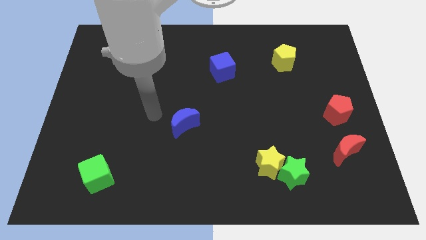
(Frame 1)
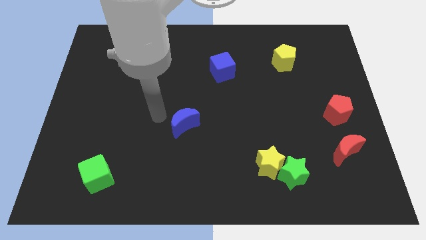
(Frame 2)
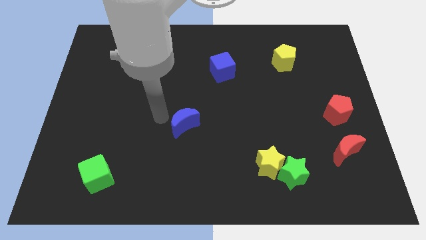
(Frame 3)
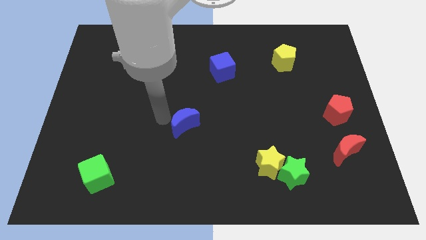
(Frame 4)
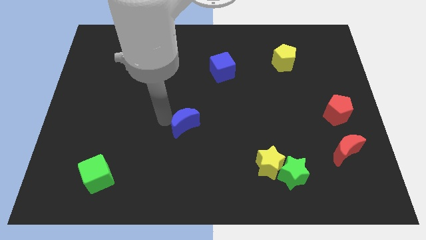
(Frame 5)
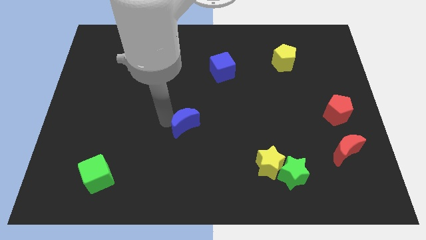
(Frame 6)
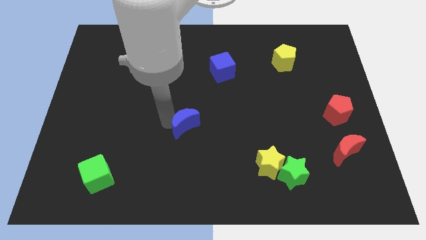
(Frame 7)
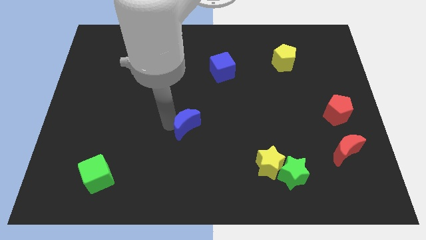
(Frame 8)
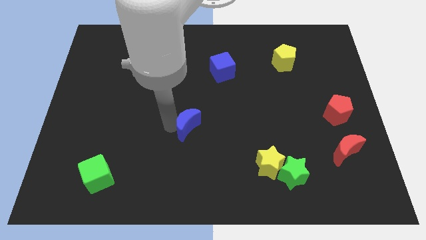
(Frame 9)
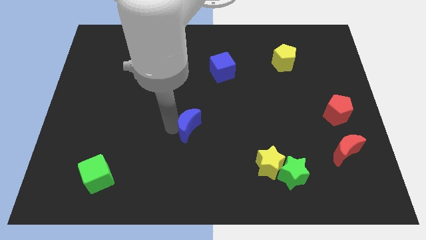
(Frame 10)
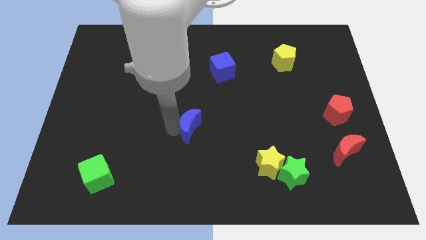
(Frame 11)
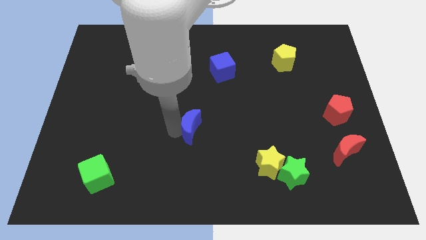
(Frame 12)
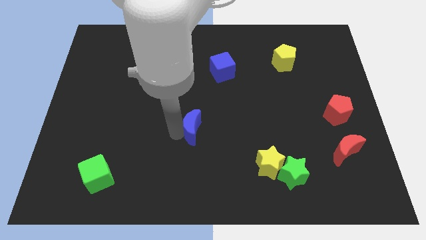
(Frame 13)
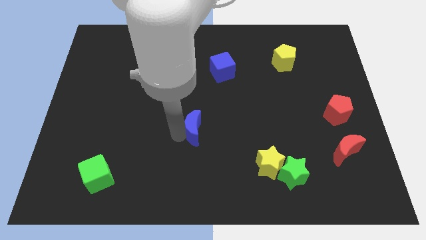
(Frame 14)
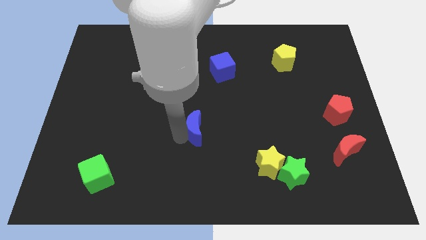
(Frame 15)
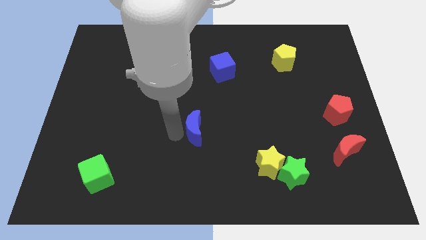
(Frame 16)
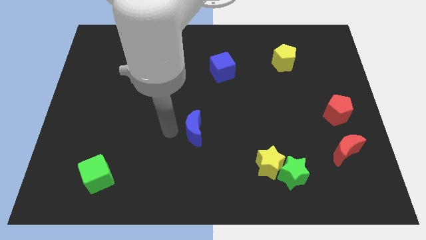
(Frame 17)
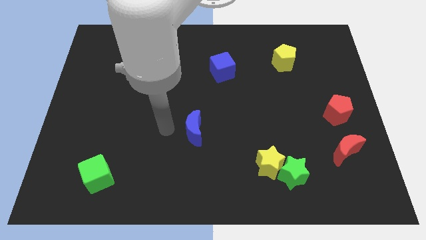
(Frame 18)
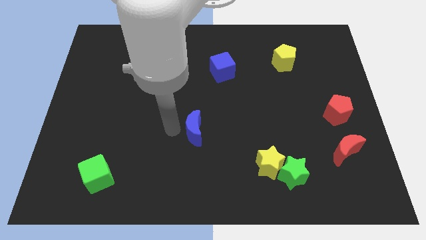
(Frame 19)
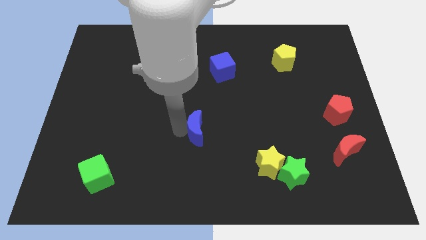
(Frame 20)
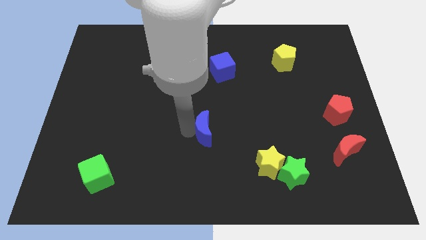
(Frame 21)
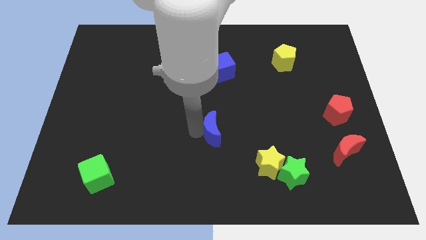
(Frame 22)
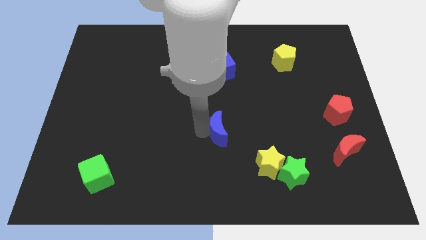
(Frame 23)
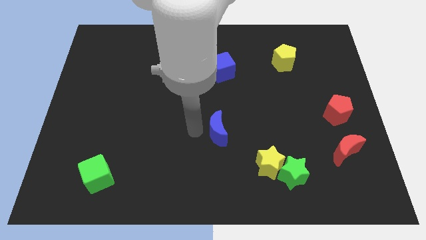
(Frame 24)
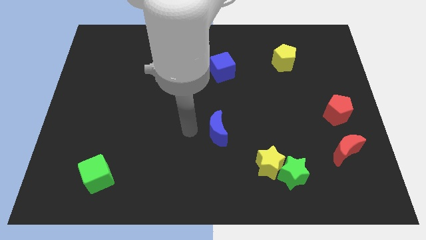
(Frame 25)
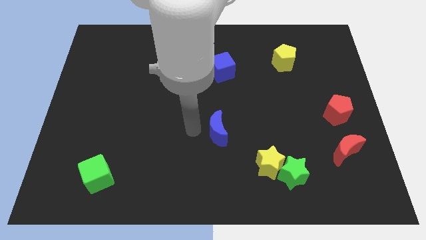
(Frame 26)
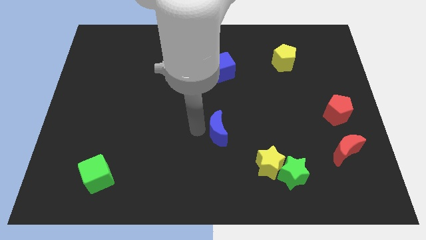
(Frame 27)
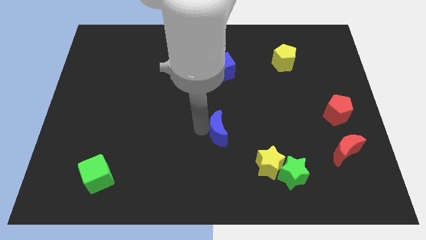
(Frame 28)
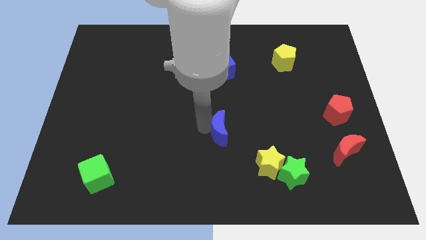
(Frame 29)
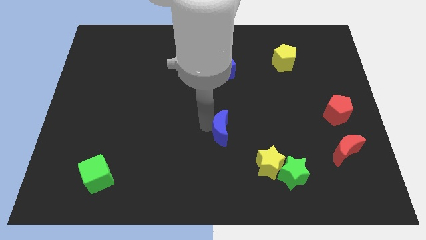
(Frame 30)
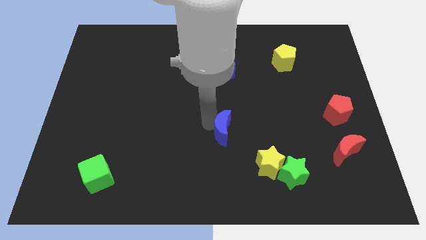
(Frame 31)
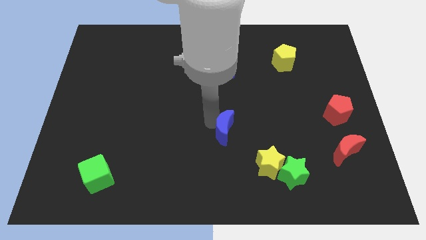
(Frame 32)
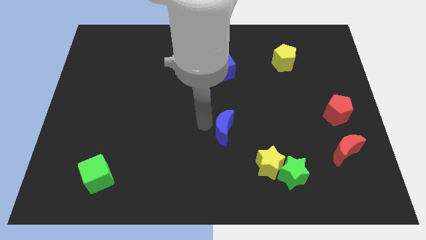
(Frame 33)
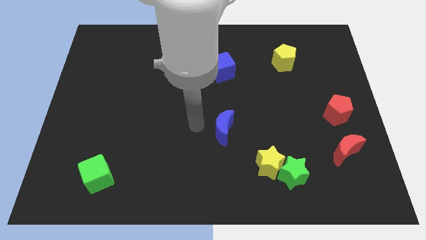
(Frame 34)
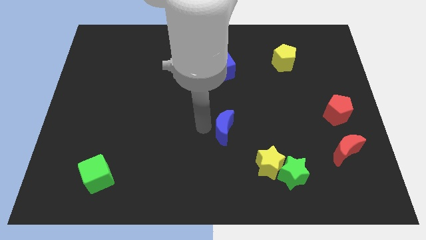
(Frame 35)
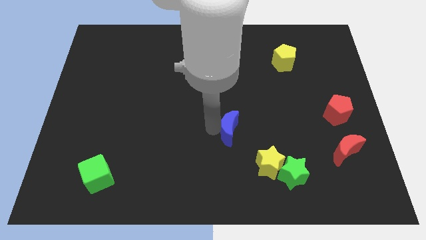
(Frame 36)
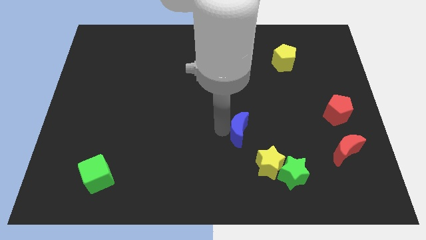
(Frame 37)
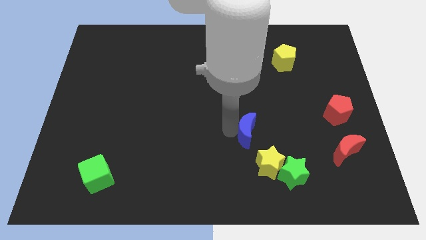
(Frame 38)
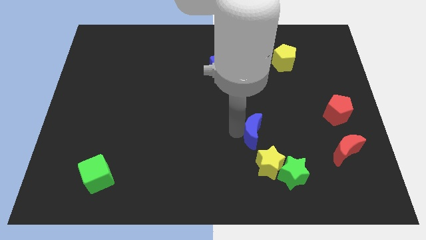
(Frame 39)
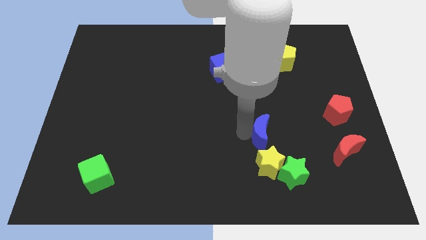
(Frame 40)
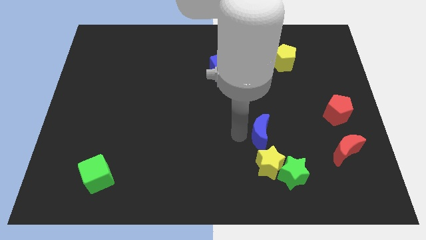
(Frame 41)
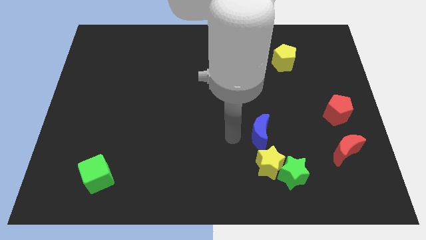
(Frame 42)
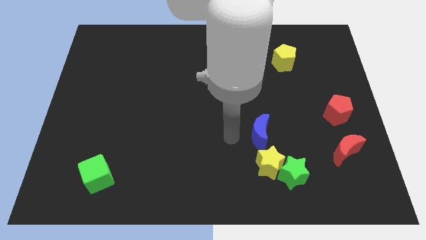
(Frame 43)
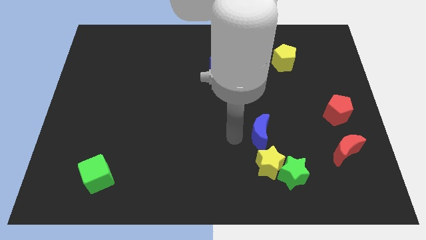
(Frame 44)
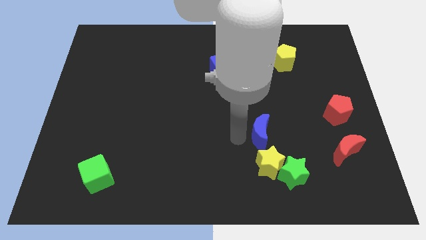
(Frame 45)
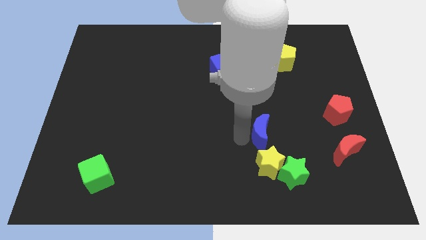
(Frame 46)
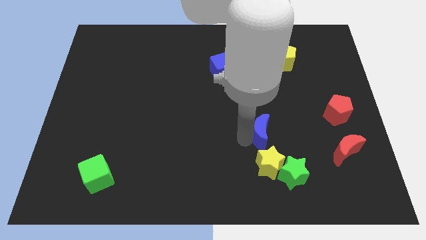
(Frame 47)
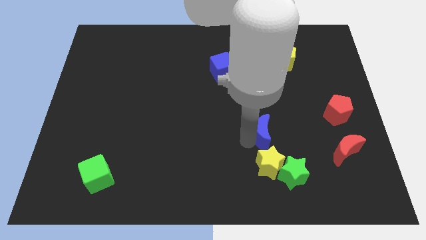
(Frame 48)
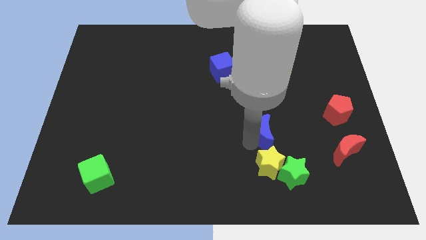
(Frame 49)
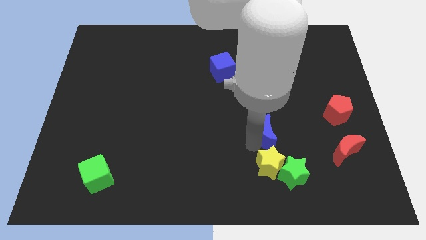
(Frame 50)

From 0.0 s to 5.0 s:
slide the blue moon to the top side of the green star

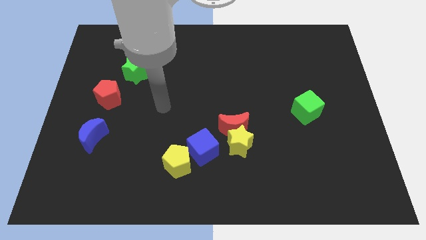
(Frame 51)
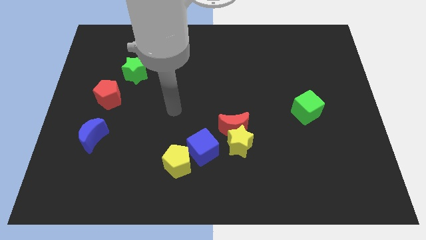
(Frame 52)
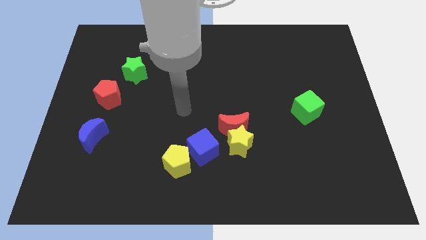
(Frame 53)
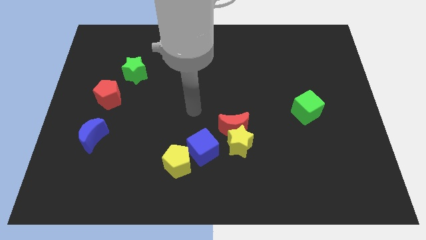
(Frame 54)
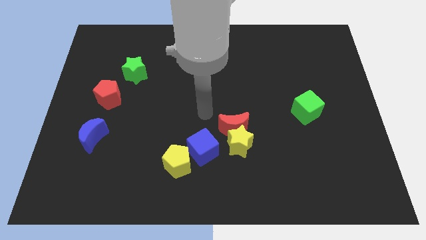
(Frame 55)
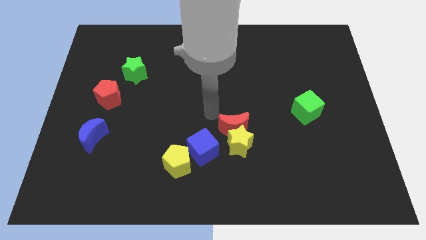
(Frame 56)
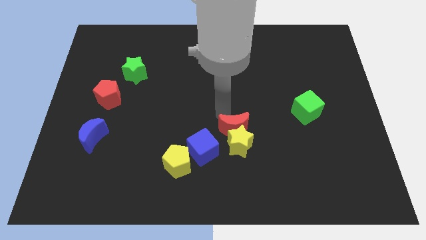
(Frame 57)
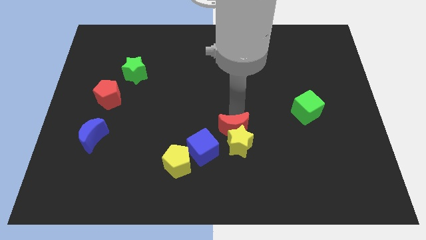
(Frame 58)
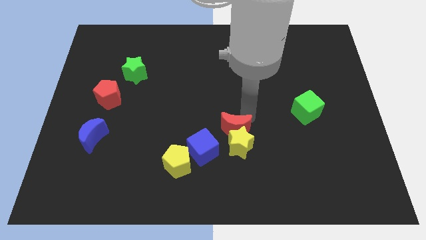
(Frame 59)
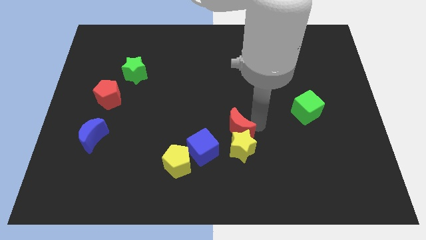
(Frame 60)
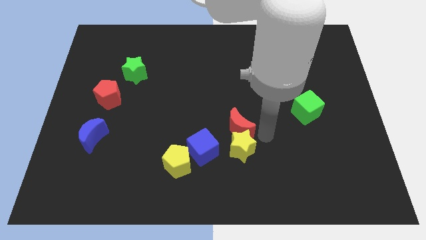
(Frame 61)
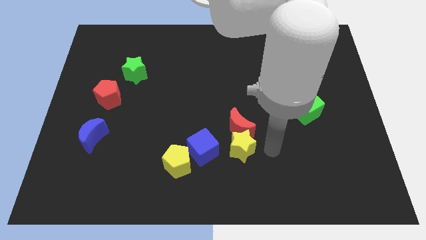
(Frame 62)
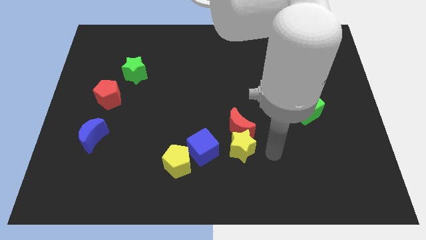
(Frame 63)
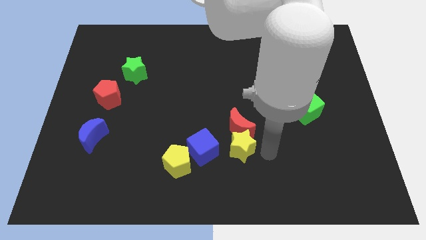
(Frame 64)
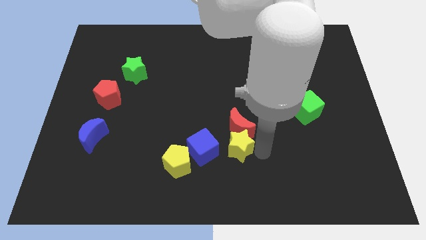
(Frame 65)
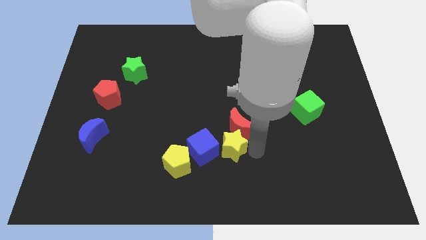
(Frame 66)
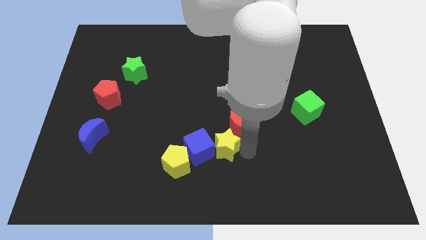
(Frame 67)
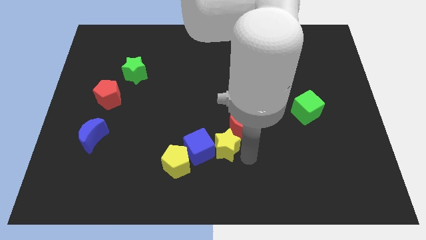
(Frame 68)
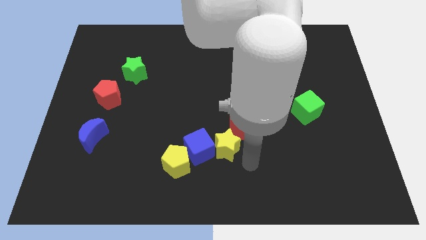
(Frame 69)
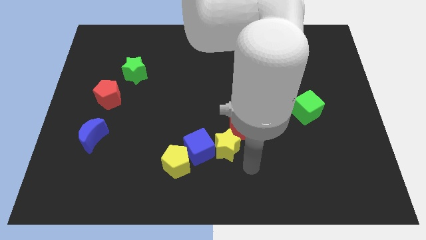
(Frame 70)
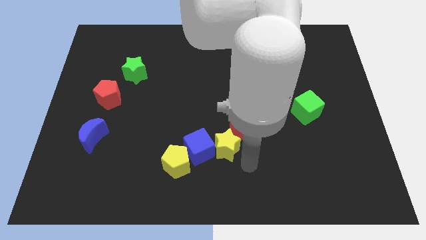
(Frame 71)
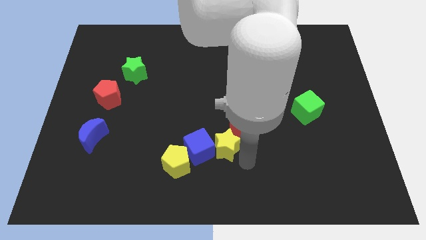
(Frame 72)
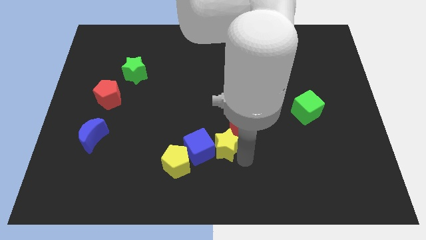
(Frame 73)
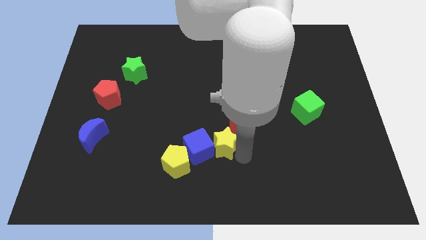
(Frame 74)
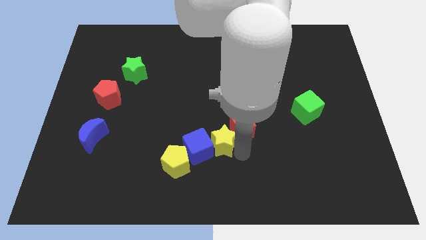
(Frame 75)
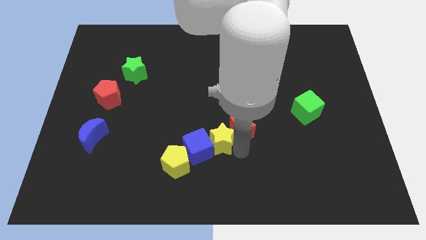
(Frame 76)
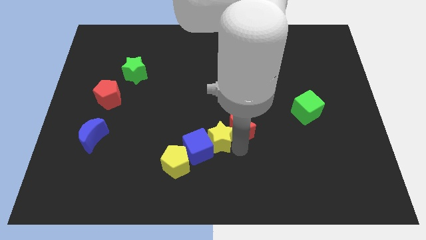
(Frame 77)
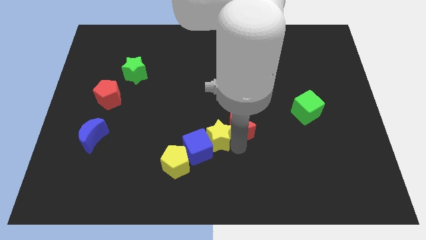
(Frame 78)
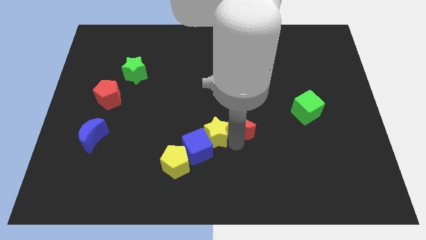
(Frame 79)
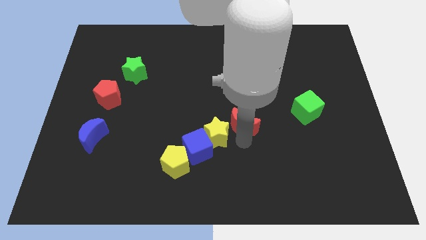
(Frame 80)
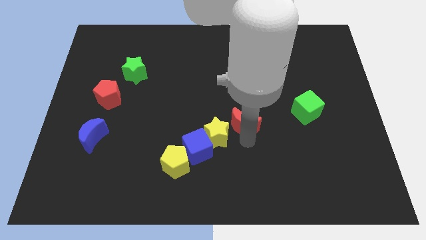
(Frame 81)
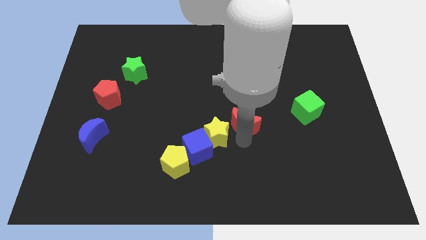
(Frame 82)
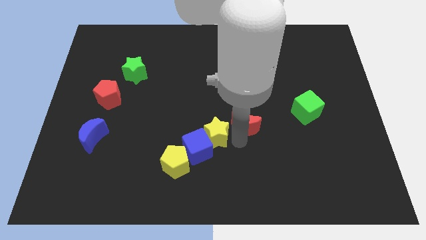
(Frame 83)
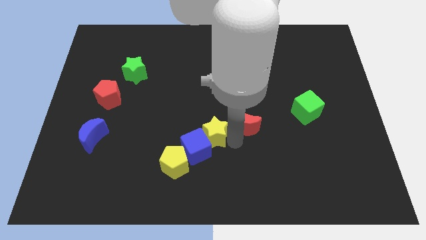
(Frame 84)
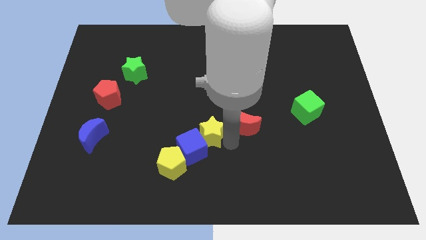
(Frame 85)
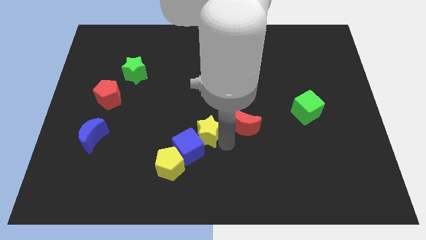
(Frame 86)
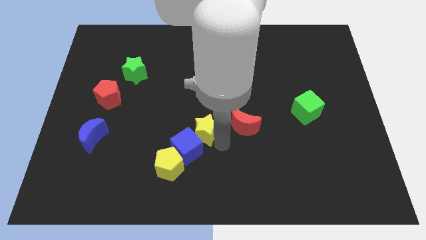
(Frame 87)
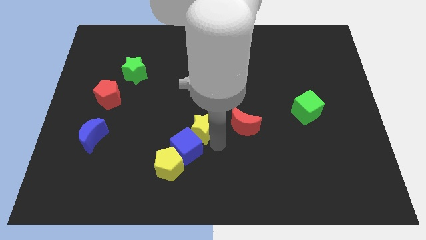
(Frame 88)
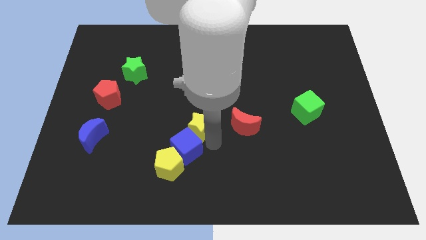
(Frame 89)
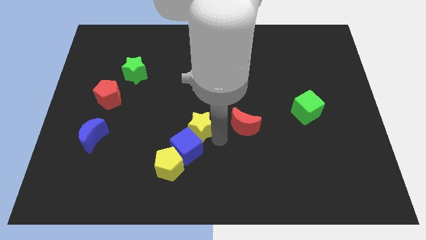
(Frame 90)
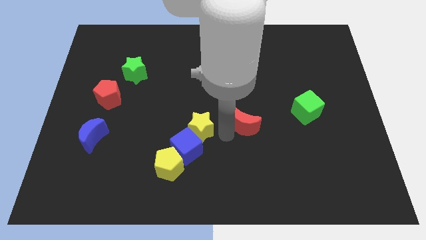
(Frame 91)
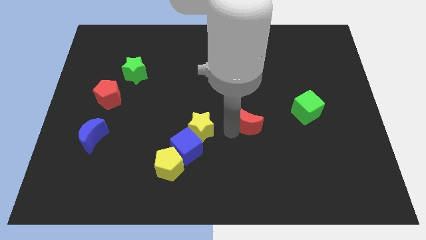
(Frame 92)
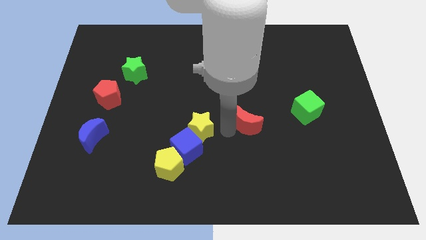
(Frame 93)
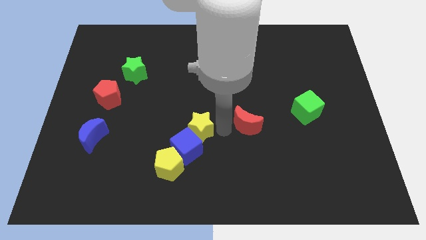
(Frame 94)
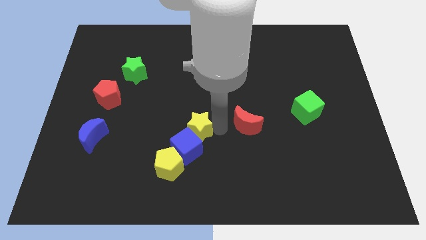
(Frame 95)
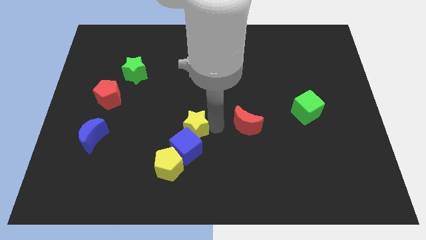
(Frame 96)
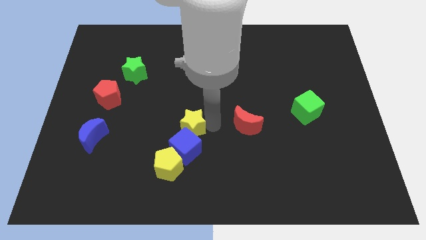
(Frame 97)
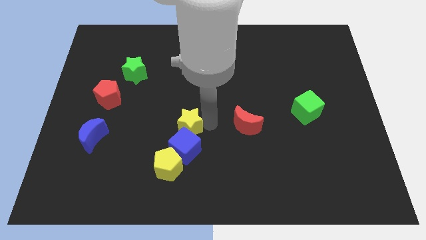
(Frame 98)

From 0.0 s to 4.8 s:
push the yellow star to the top left of the blue cube
